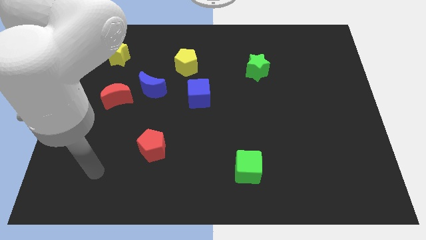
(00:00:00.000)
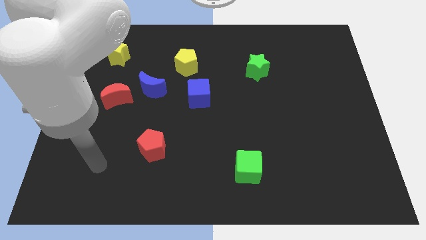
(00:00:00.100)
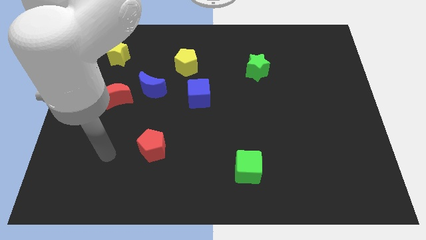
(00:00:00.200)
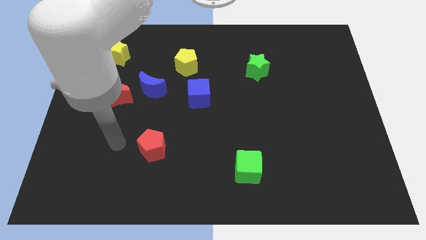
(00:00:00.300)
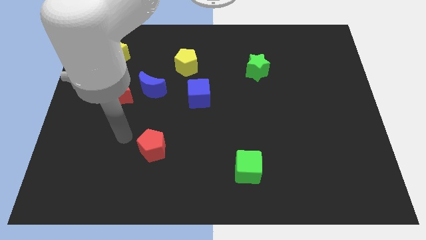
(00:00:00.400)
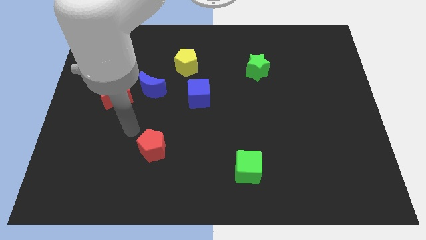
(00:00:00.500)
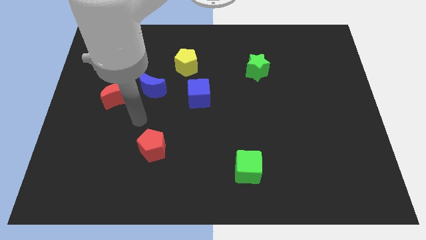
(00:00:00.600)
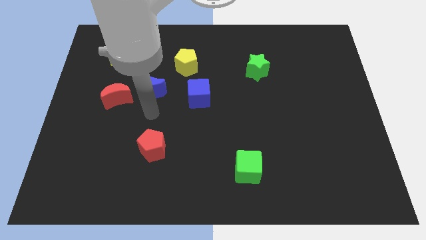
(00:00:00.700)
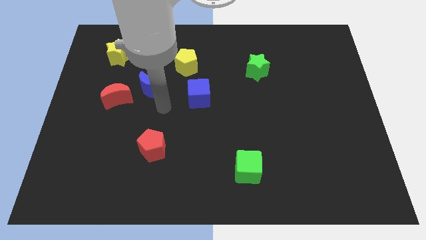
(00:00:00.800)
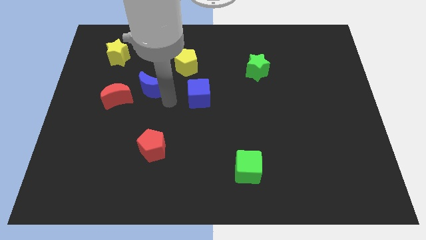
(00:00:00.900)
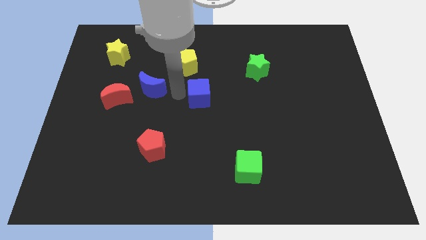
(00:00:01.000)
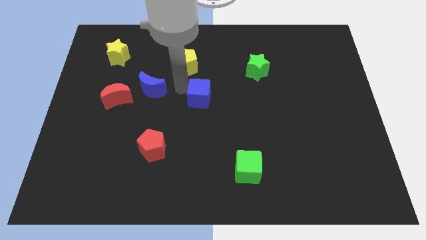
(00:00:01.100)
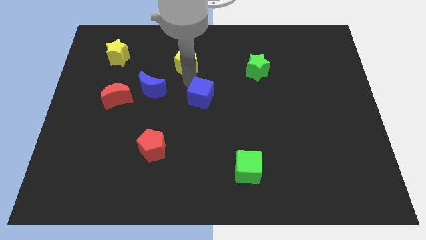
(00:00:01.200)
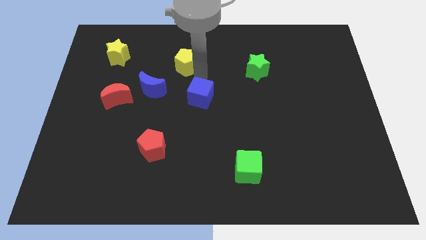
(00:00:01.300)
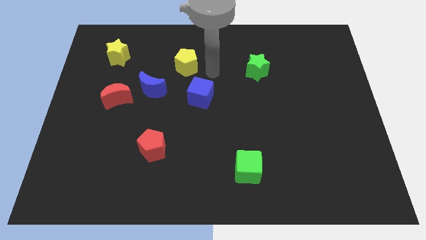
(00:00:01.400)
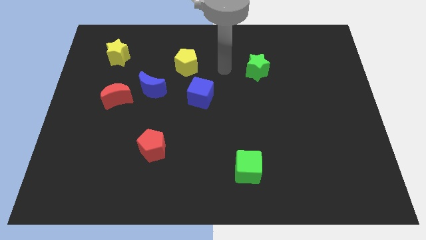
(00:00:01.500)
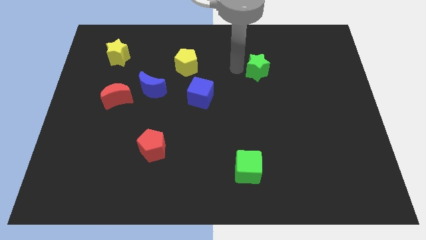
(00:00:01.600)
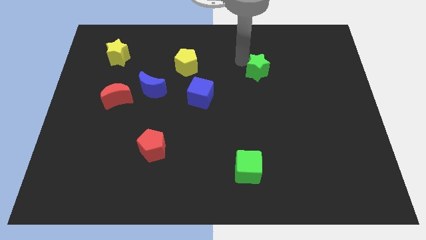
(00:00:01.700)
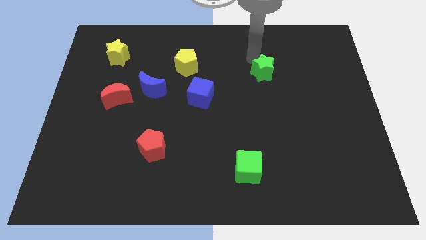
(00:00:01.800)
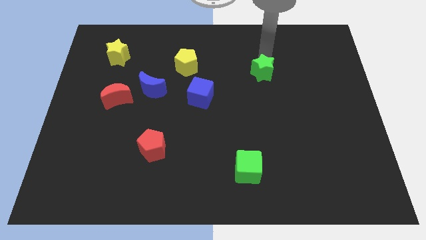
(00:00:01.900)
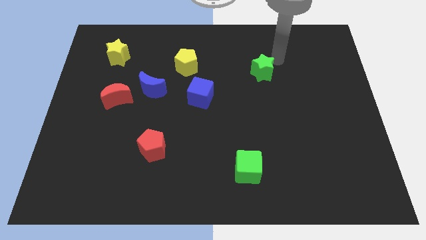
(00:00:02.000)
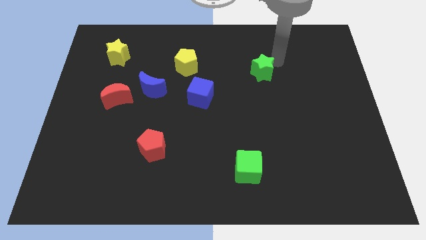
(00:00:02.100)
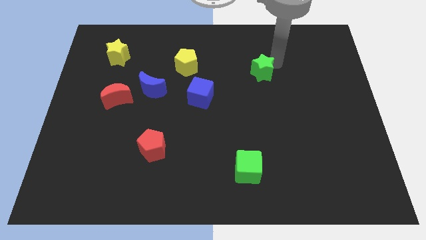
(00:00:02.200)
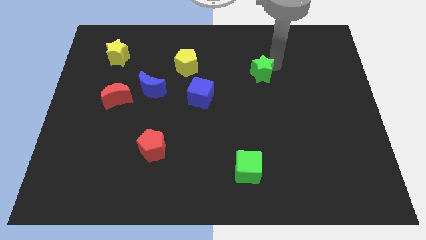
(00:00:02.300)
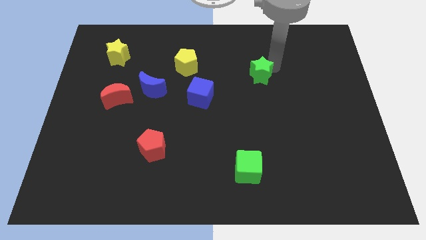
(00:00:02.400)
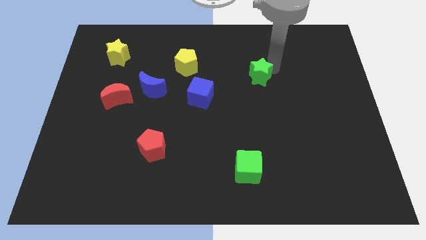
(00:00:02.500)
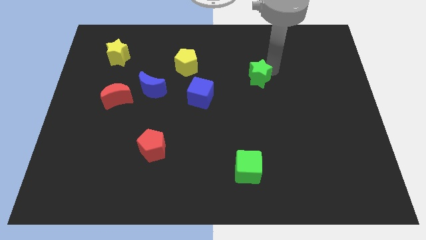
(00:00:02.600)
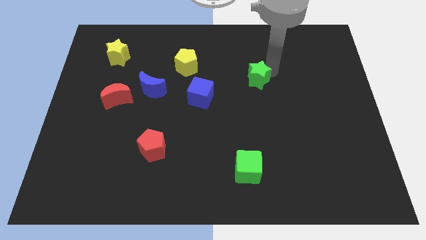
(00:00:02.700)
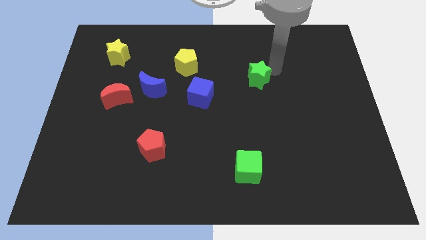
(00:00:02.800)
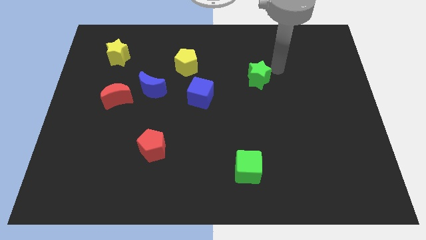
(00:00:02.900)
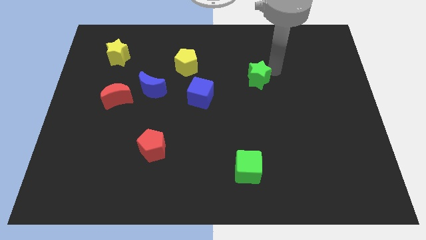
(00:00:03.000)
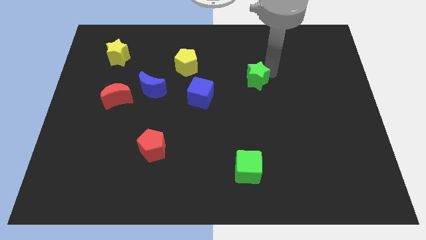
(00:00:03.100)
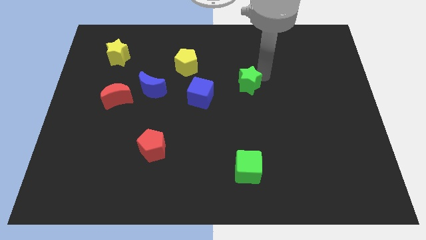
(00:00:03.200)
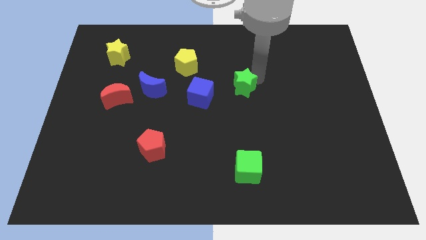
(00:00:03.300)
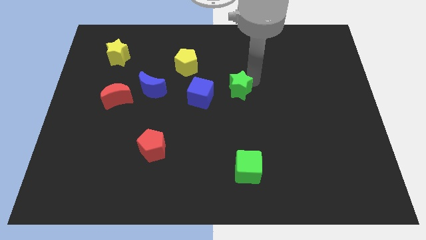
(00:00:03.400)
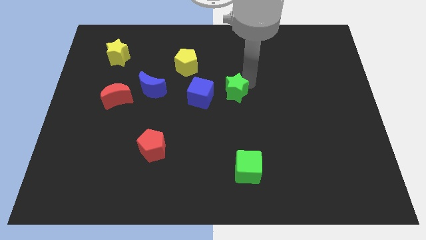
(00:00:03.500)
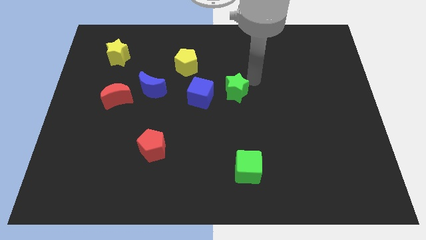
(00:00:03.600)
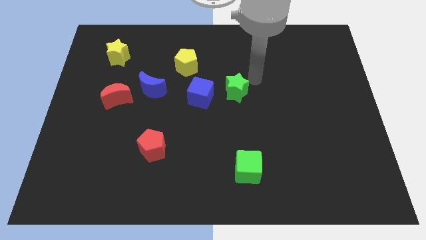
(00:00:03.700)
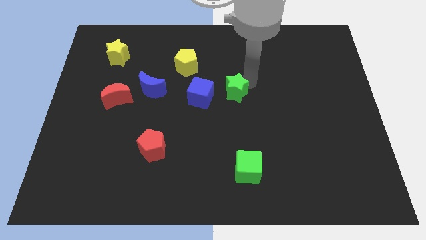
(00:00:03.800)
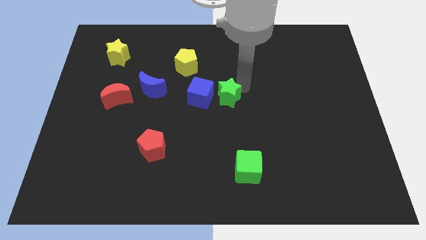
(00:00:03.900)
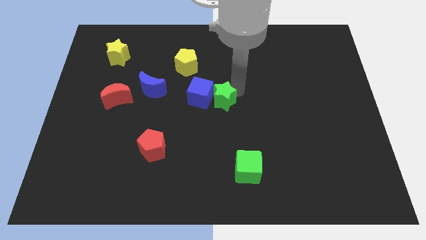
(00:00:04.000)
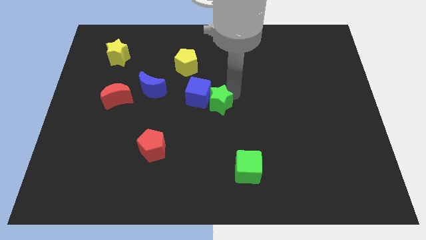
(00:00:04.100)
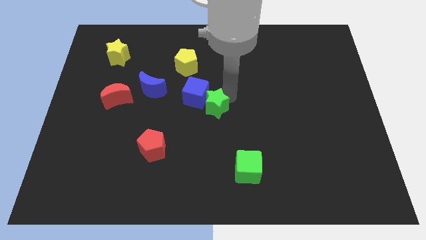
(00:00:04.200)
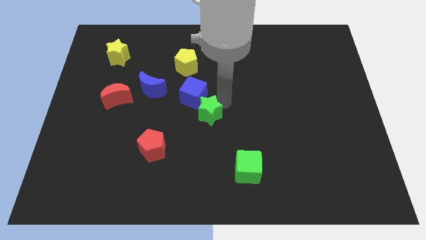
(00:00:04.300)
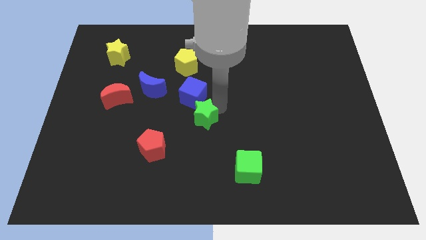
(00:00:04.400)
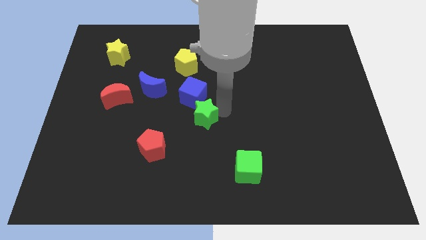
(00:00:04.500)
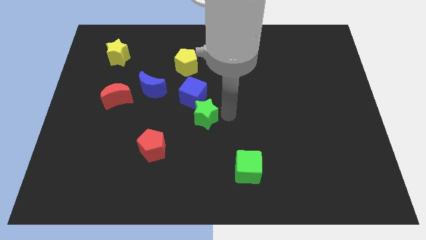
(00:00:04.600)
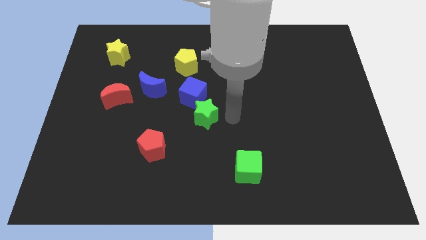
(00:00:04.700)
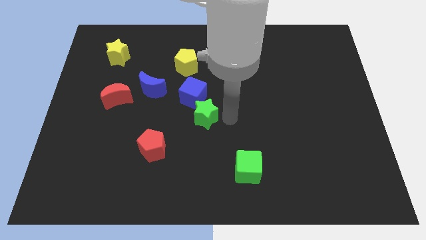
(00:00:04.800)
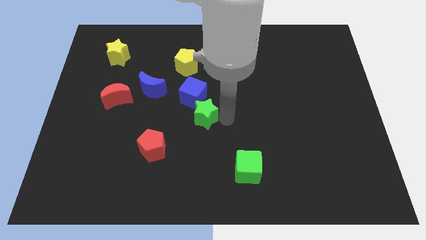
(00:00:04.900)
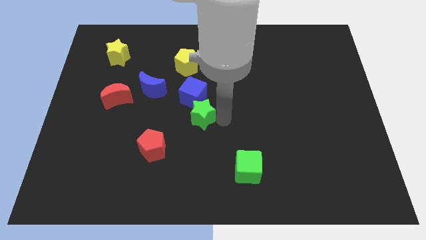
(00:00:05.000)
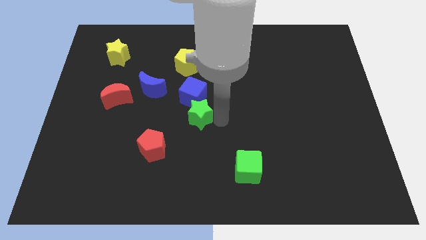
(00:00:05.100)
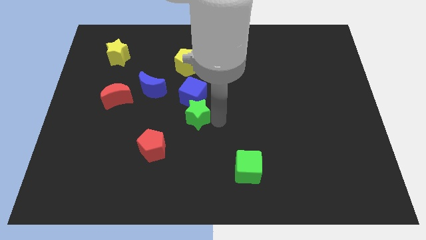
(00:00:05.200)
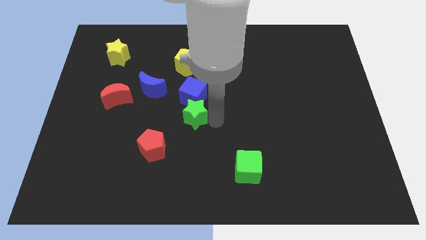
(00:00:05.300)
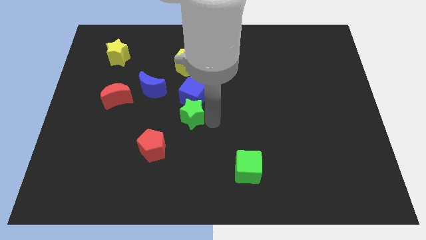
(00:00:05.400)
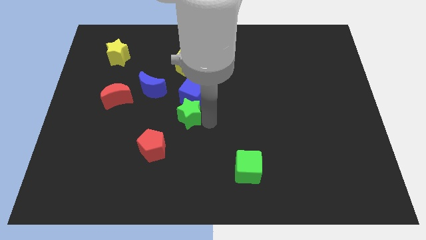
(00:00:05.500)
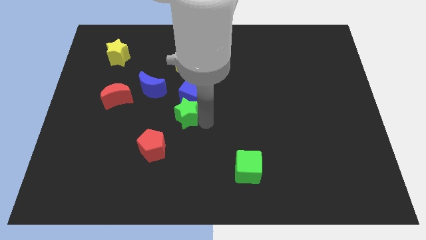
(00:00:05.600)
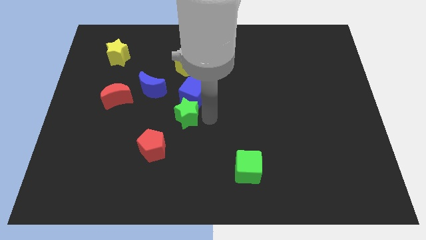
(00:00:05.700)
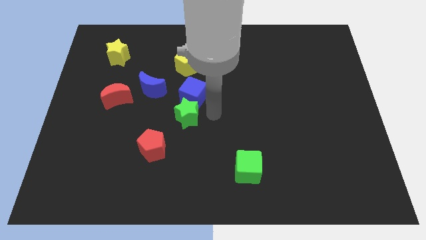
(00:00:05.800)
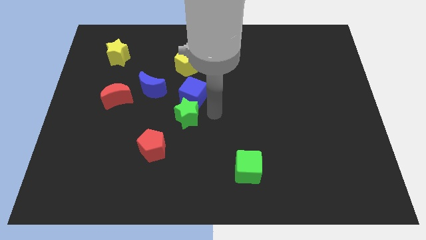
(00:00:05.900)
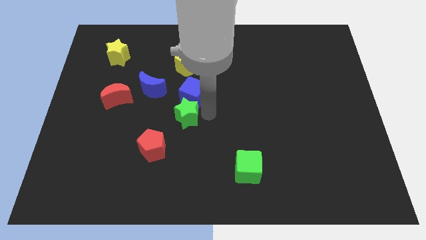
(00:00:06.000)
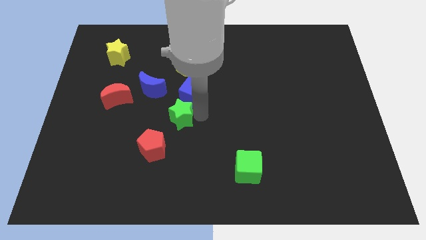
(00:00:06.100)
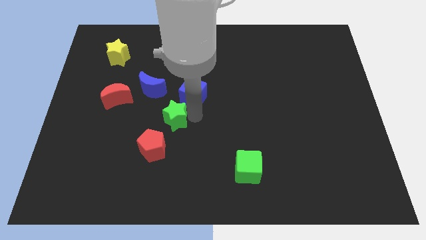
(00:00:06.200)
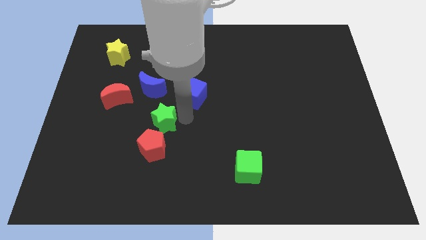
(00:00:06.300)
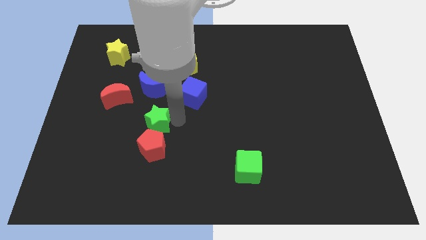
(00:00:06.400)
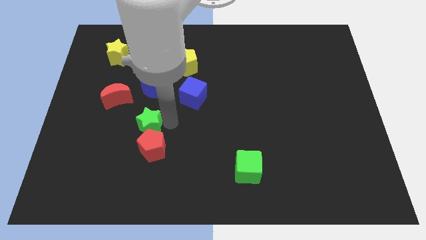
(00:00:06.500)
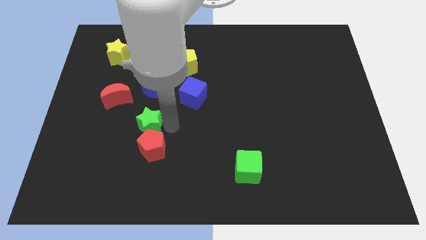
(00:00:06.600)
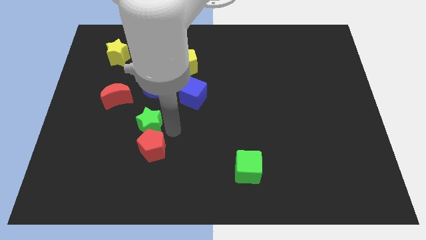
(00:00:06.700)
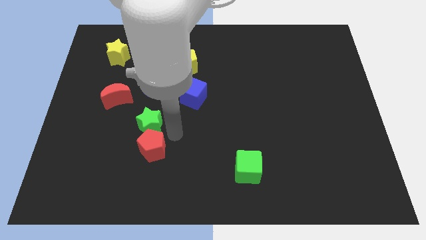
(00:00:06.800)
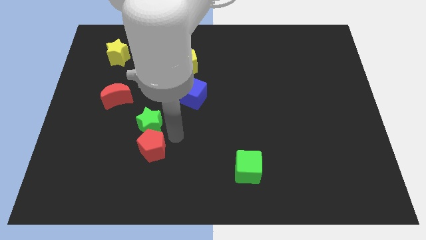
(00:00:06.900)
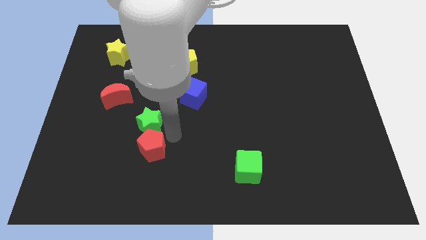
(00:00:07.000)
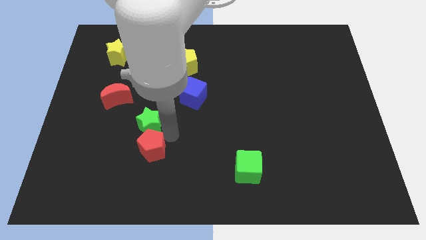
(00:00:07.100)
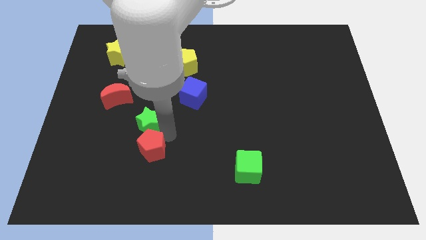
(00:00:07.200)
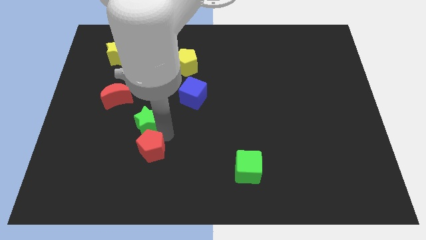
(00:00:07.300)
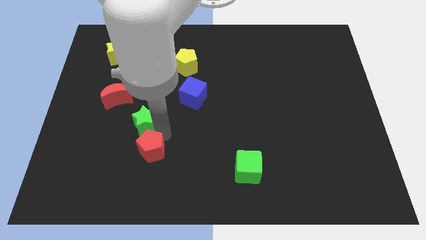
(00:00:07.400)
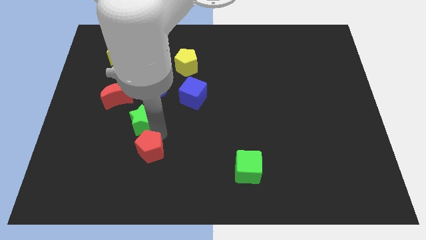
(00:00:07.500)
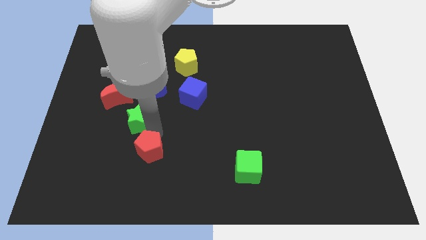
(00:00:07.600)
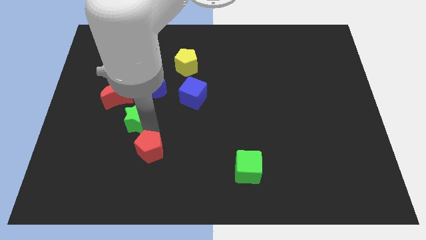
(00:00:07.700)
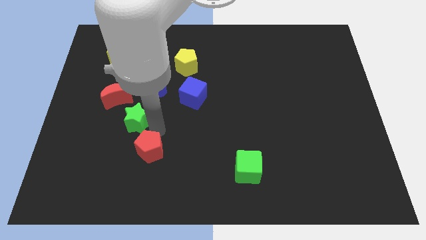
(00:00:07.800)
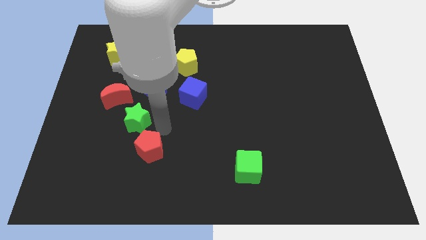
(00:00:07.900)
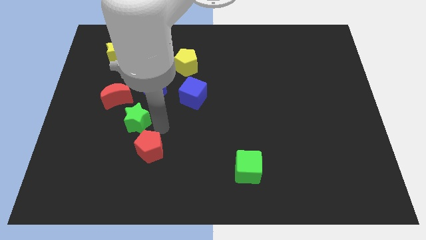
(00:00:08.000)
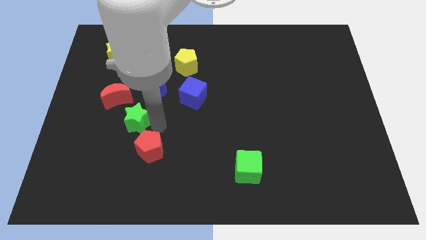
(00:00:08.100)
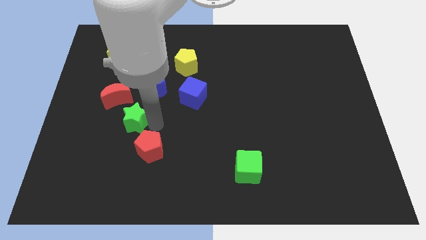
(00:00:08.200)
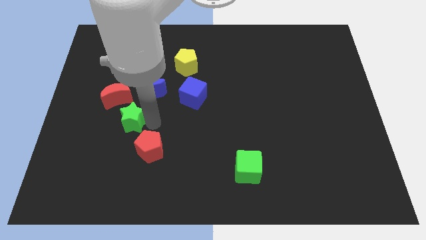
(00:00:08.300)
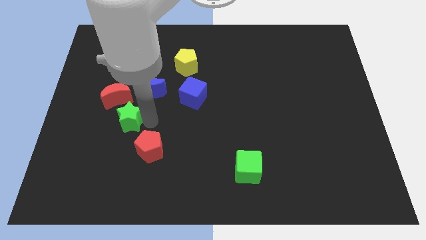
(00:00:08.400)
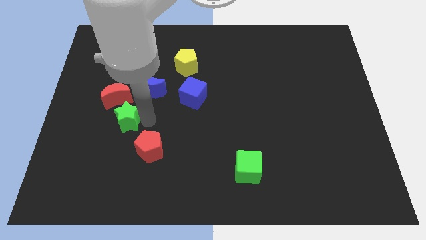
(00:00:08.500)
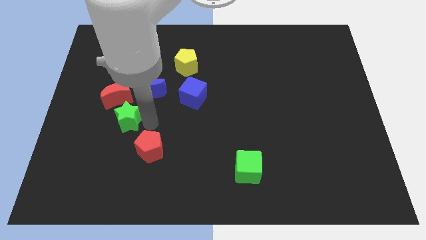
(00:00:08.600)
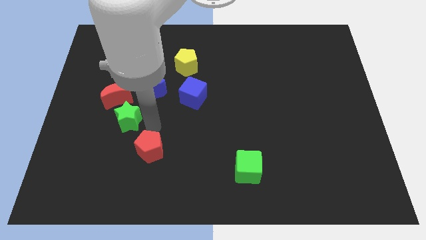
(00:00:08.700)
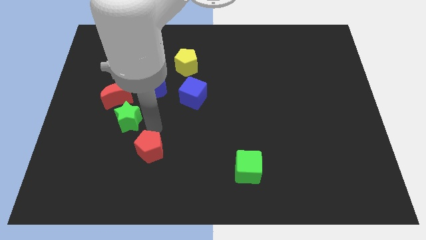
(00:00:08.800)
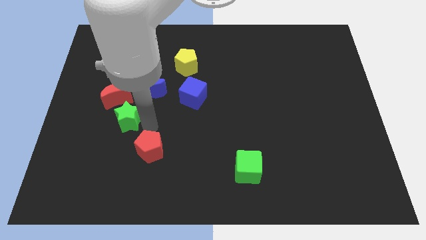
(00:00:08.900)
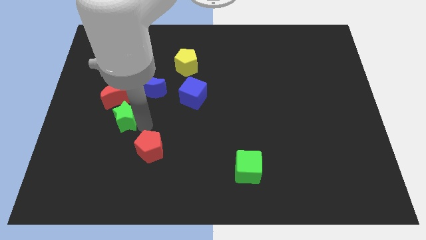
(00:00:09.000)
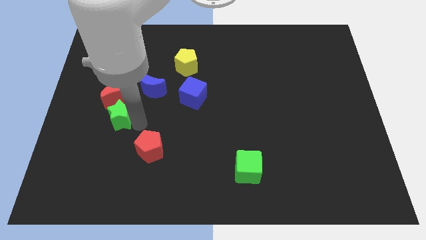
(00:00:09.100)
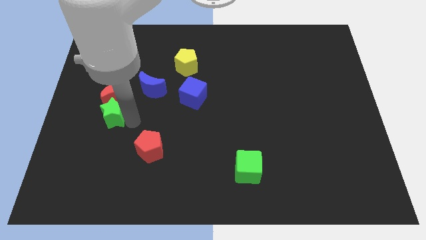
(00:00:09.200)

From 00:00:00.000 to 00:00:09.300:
put the green star diagonally down and to the left of the red moon
